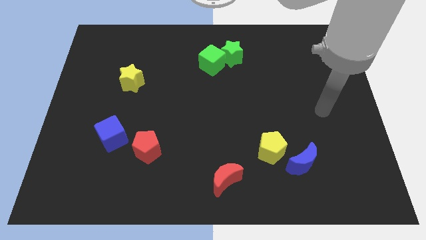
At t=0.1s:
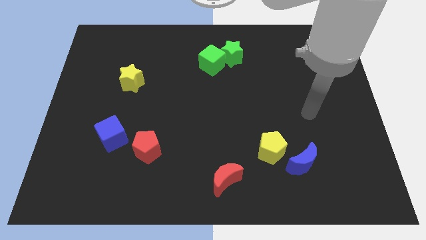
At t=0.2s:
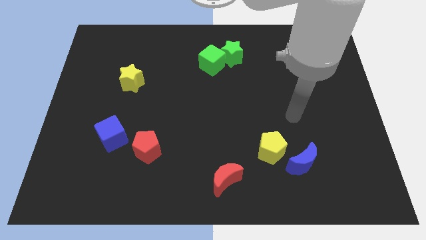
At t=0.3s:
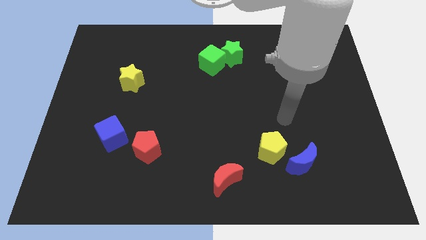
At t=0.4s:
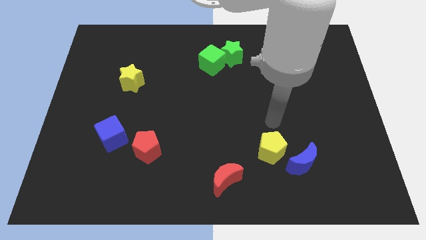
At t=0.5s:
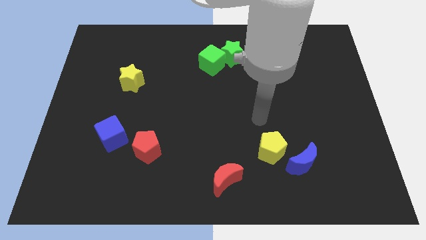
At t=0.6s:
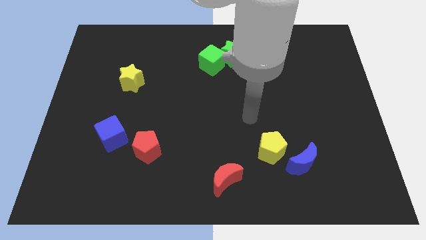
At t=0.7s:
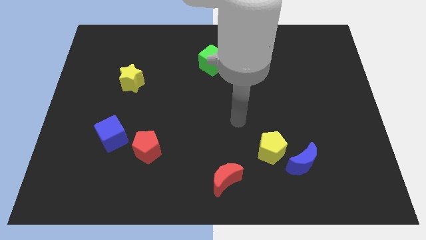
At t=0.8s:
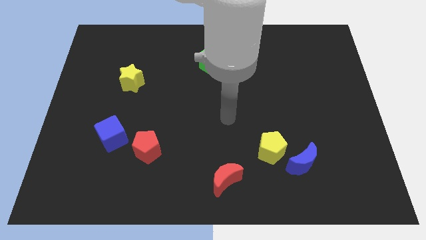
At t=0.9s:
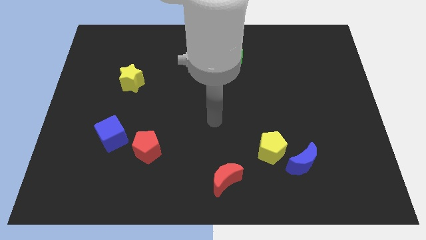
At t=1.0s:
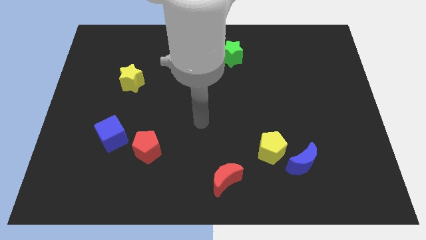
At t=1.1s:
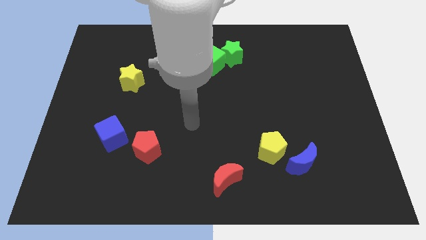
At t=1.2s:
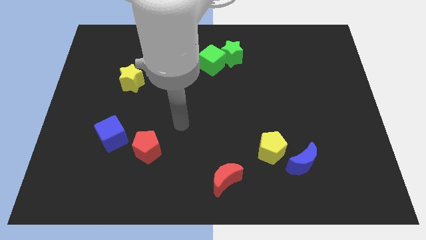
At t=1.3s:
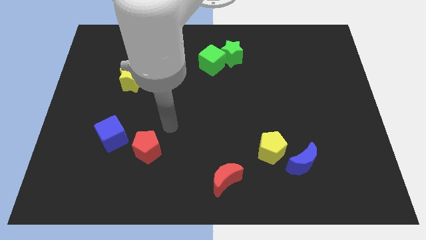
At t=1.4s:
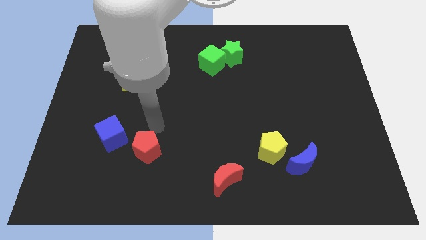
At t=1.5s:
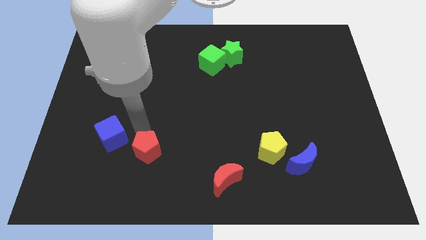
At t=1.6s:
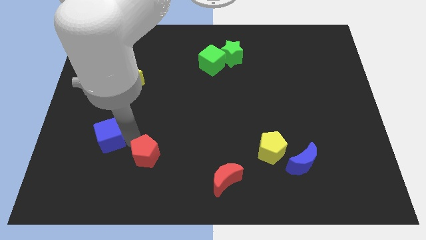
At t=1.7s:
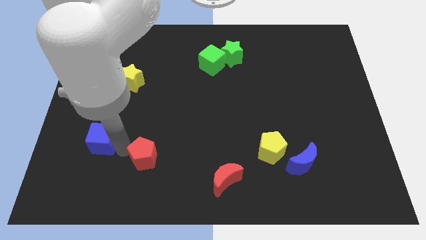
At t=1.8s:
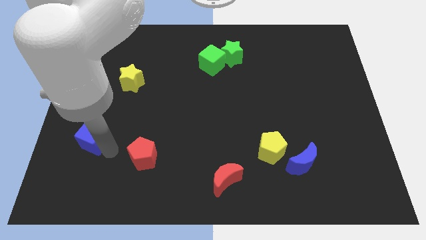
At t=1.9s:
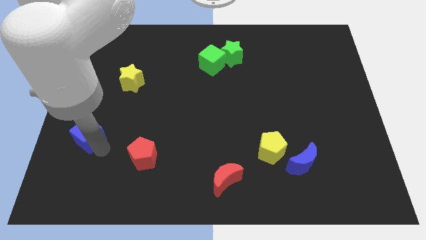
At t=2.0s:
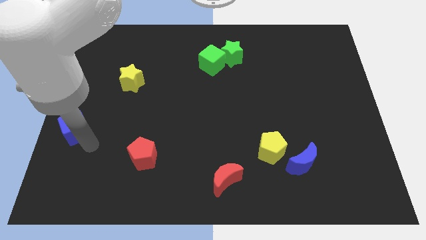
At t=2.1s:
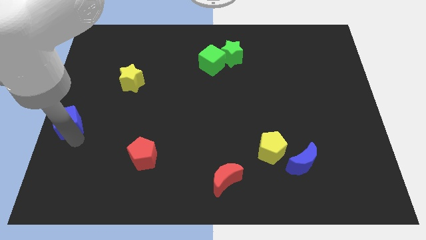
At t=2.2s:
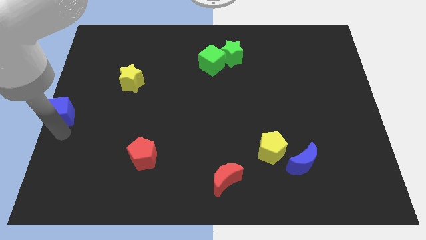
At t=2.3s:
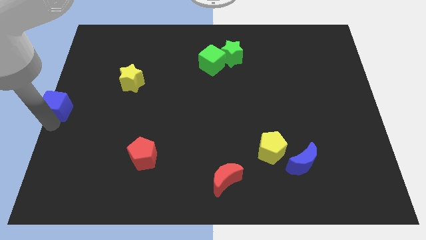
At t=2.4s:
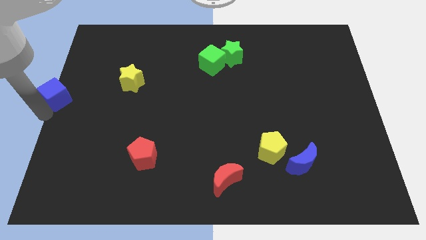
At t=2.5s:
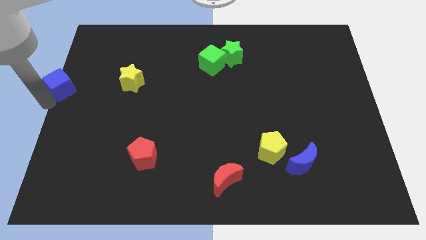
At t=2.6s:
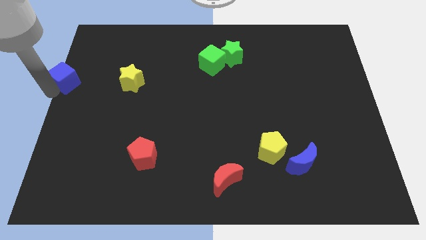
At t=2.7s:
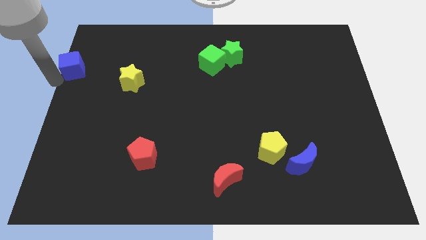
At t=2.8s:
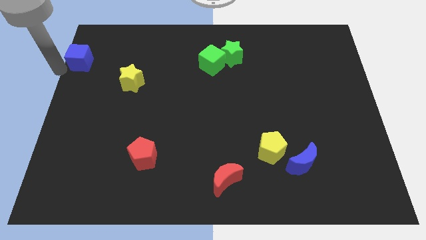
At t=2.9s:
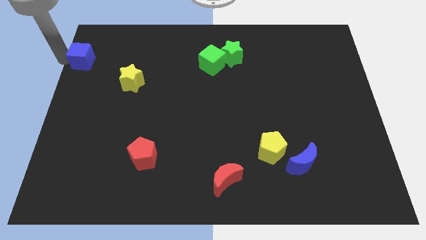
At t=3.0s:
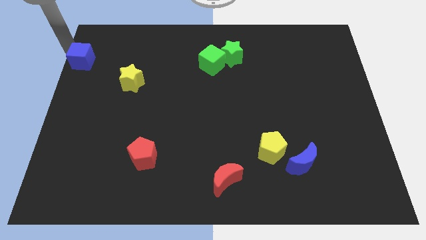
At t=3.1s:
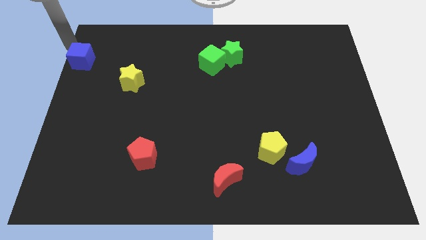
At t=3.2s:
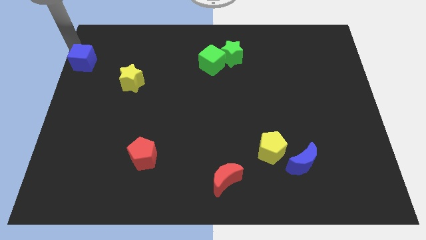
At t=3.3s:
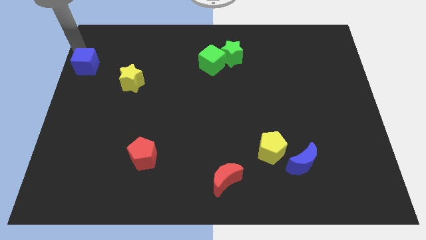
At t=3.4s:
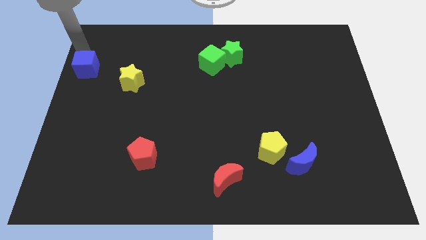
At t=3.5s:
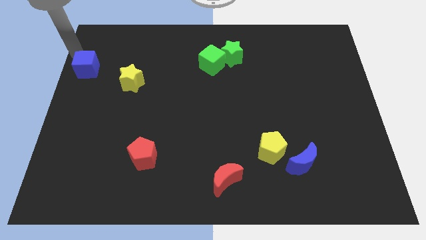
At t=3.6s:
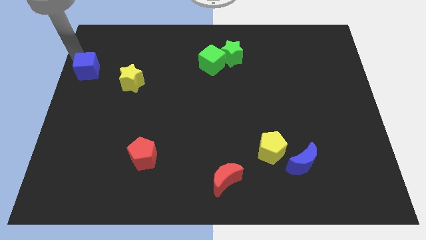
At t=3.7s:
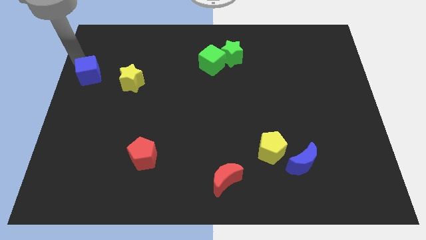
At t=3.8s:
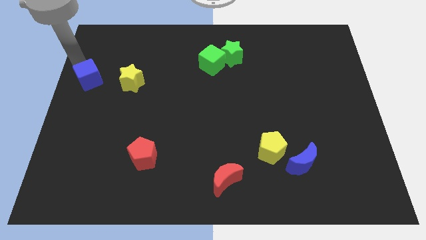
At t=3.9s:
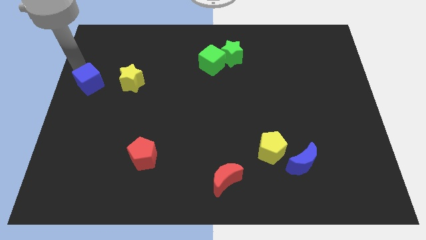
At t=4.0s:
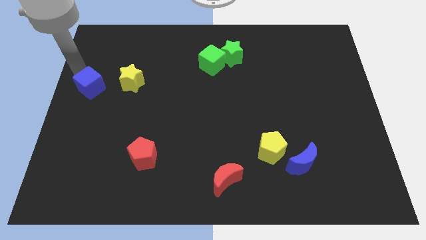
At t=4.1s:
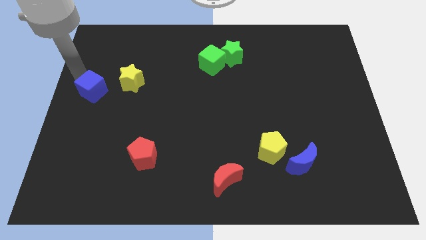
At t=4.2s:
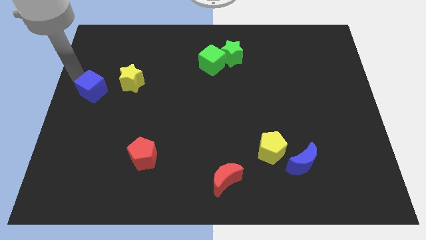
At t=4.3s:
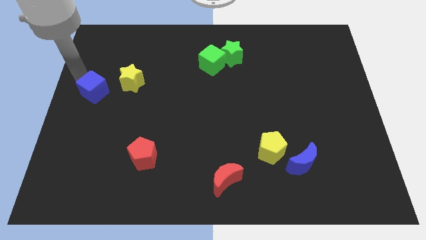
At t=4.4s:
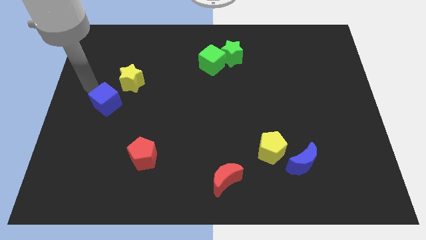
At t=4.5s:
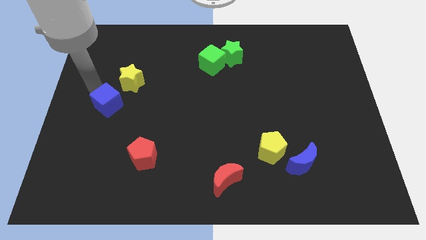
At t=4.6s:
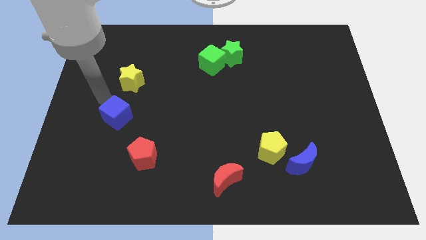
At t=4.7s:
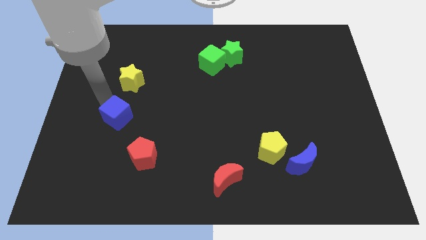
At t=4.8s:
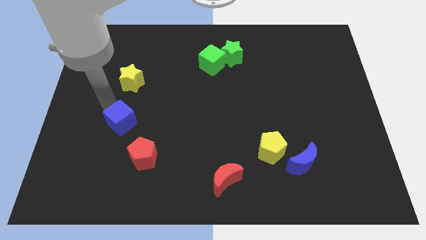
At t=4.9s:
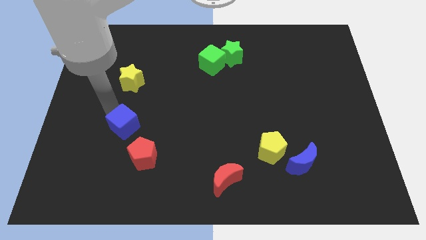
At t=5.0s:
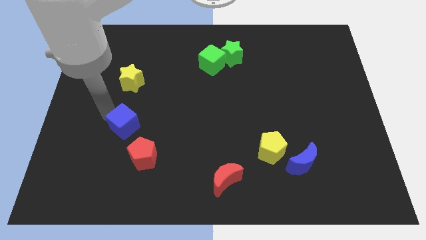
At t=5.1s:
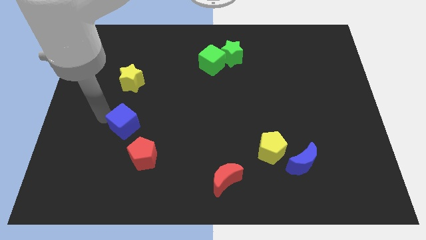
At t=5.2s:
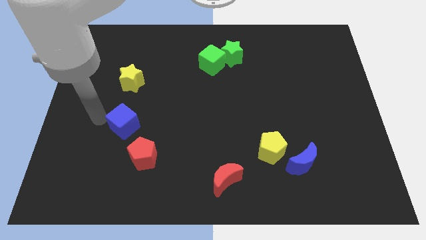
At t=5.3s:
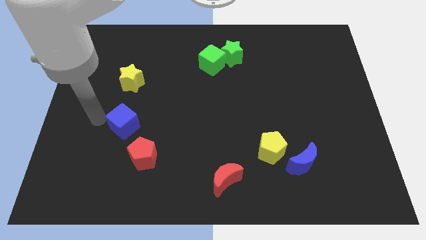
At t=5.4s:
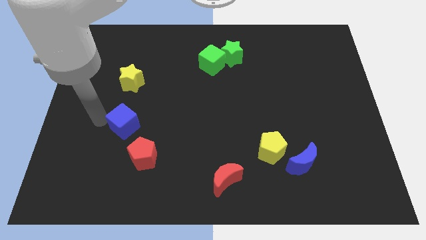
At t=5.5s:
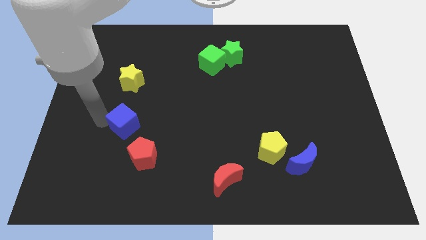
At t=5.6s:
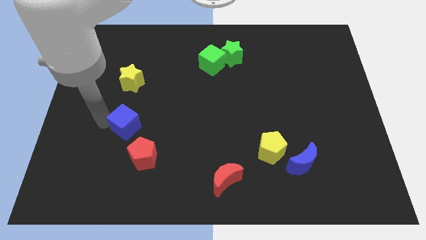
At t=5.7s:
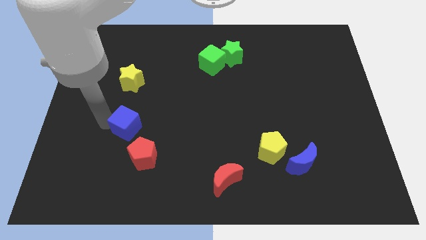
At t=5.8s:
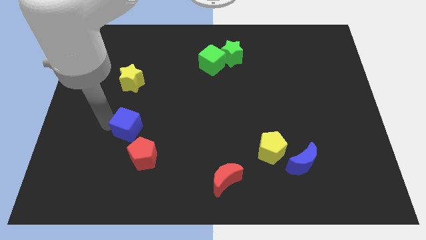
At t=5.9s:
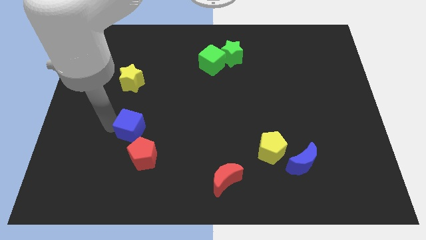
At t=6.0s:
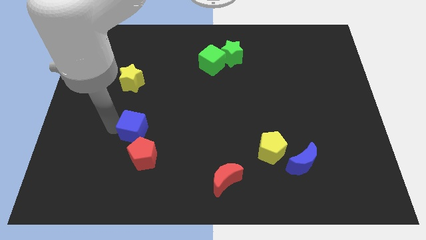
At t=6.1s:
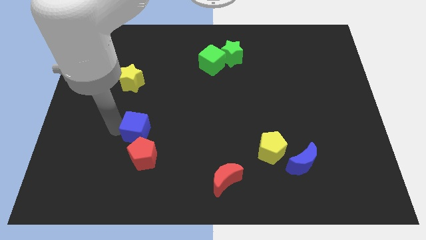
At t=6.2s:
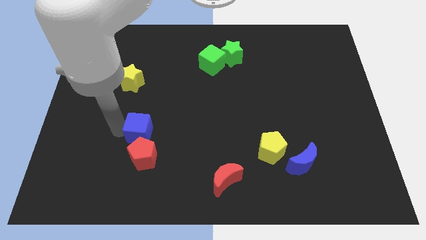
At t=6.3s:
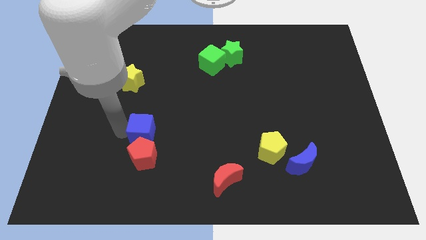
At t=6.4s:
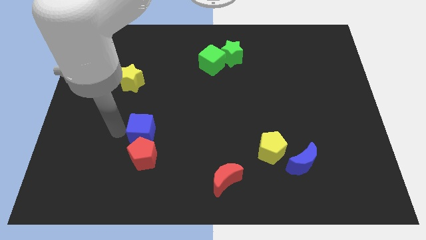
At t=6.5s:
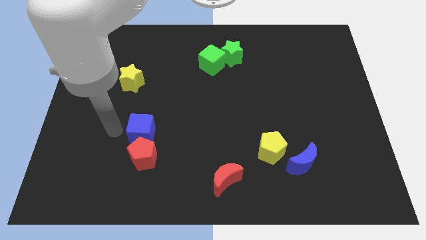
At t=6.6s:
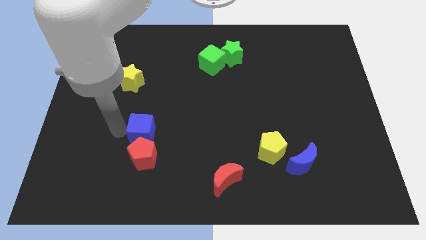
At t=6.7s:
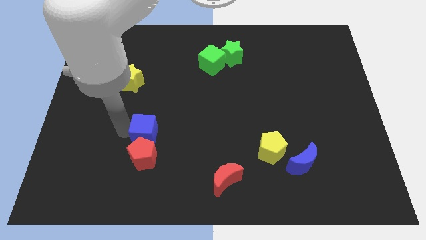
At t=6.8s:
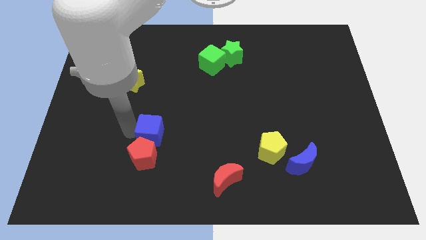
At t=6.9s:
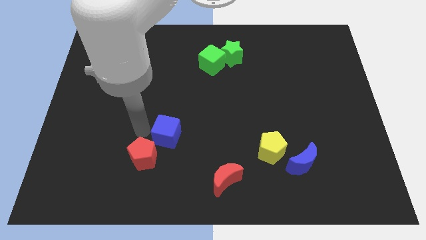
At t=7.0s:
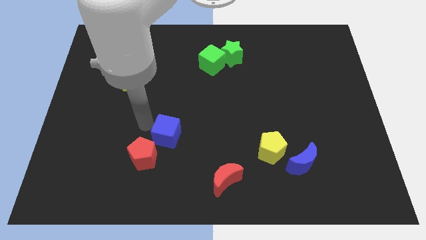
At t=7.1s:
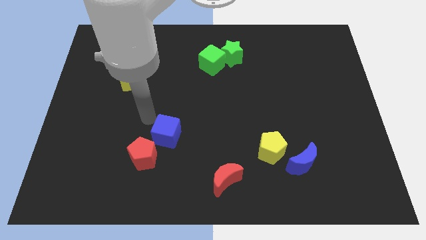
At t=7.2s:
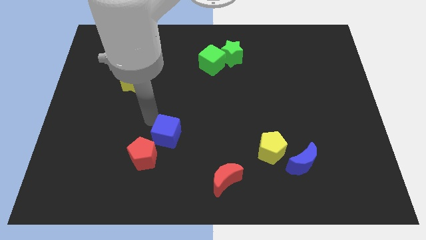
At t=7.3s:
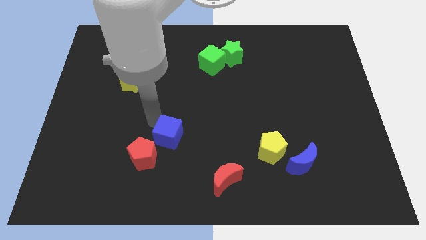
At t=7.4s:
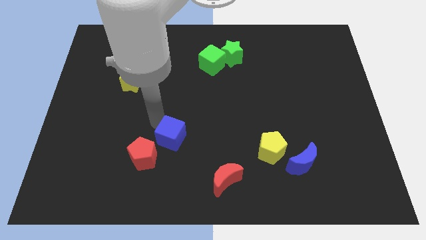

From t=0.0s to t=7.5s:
push the blue cube just right of the red pentagon

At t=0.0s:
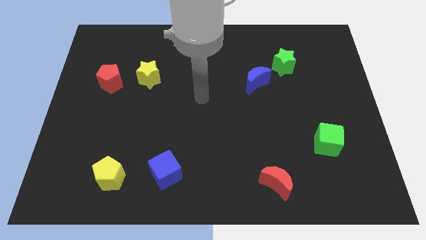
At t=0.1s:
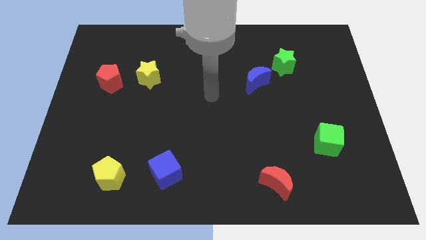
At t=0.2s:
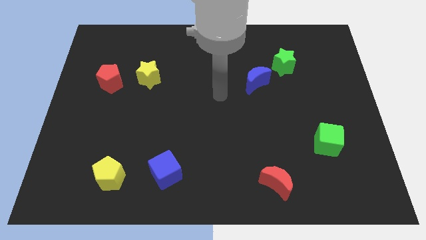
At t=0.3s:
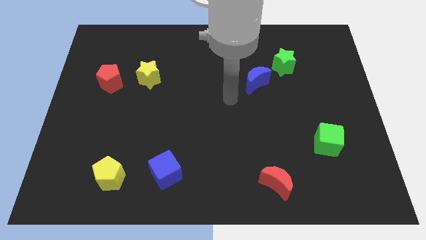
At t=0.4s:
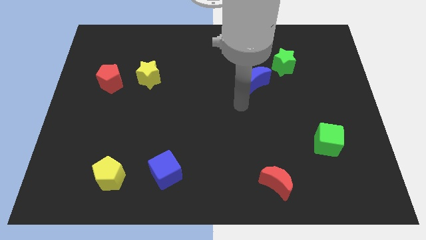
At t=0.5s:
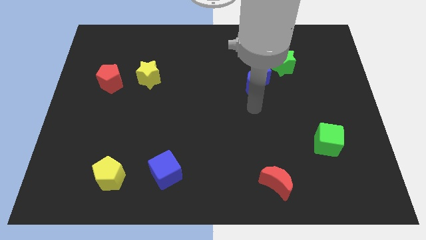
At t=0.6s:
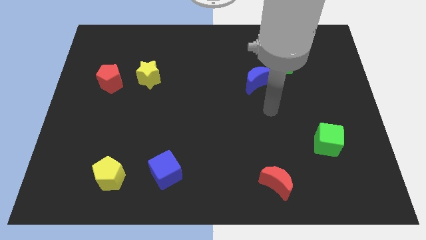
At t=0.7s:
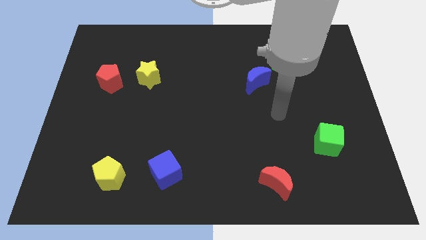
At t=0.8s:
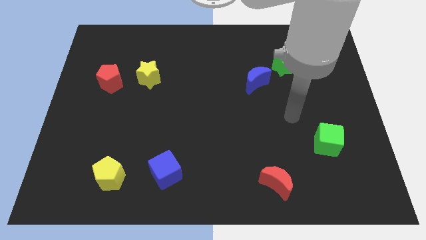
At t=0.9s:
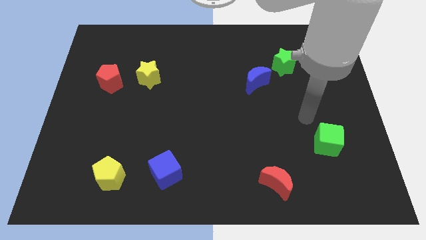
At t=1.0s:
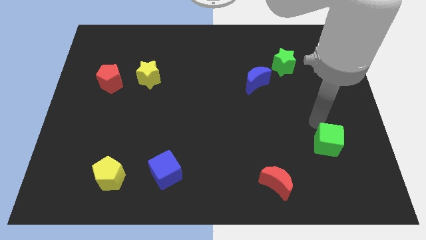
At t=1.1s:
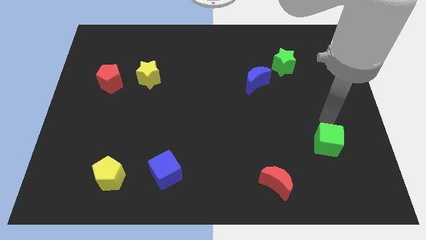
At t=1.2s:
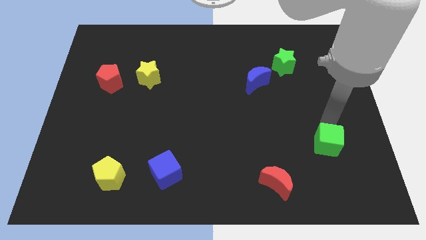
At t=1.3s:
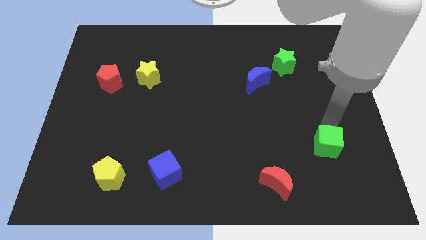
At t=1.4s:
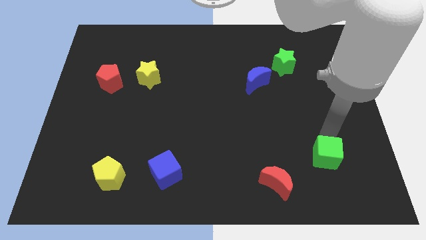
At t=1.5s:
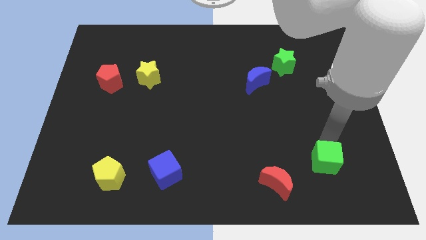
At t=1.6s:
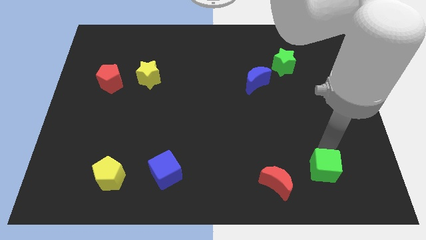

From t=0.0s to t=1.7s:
slide the green cube just right of the red moon
